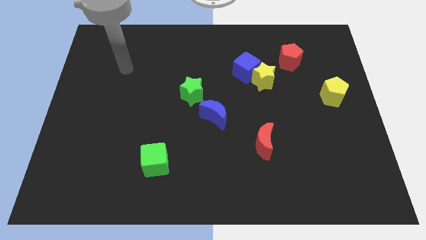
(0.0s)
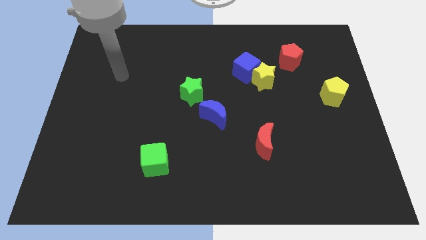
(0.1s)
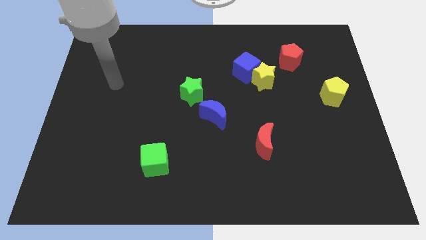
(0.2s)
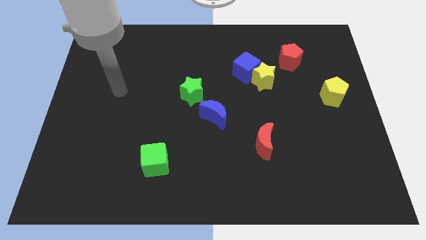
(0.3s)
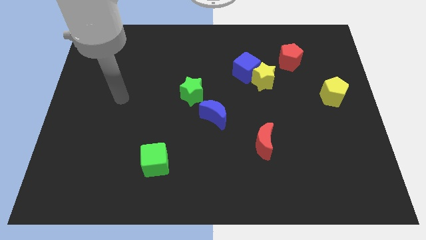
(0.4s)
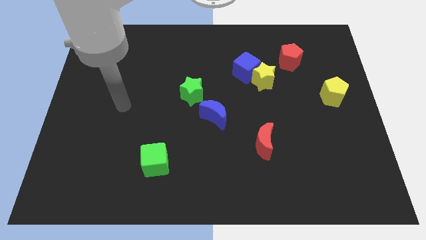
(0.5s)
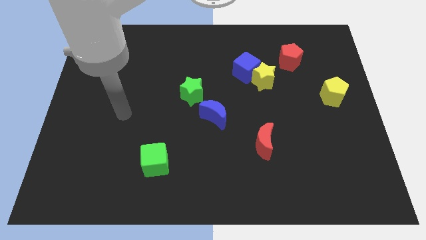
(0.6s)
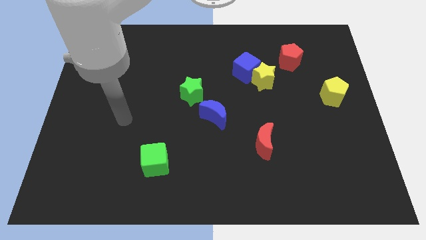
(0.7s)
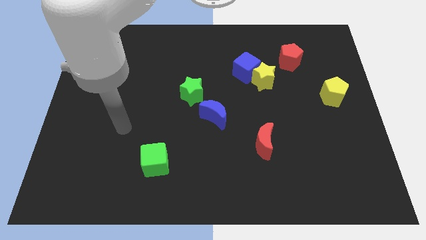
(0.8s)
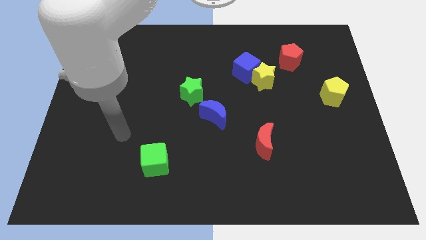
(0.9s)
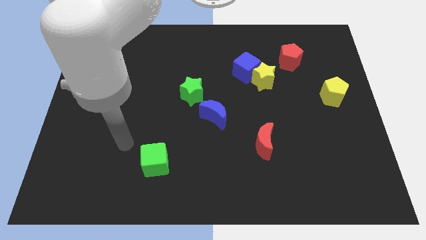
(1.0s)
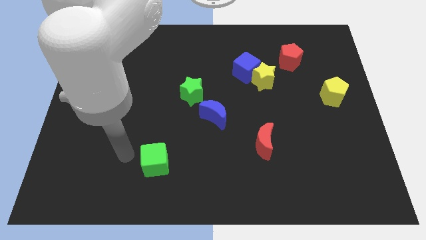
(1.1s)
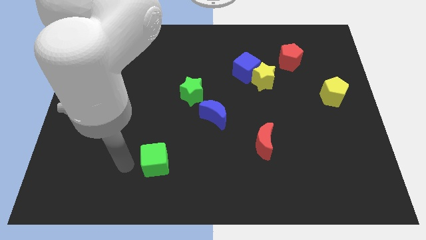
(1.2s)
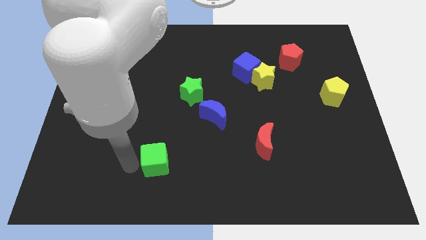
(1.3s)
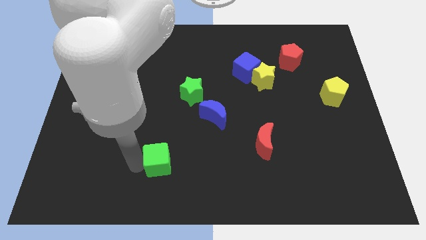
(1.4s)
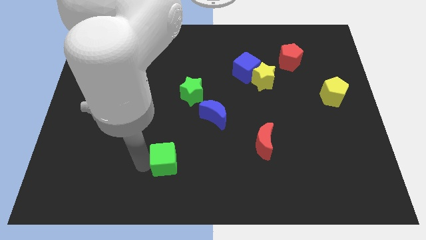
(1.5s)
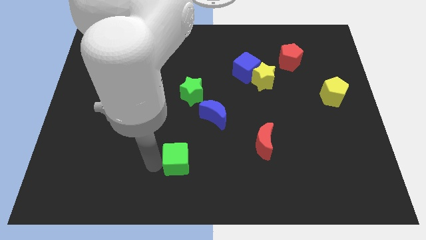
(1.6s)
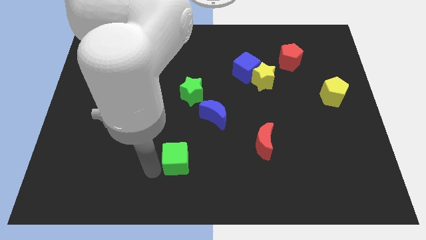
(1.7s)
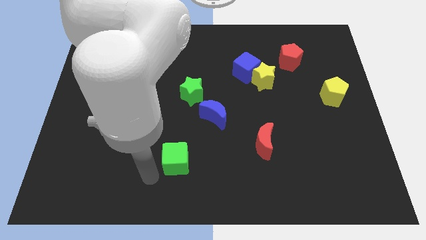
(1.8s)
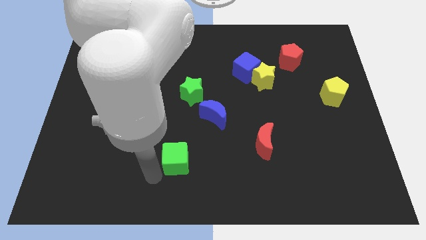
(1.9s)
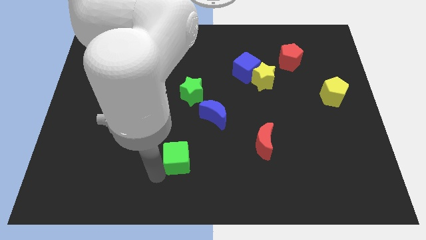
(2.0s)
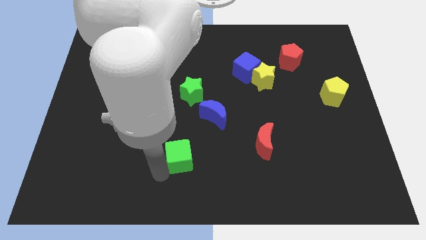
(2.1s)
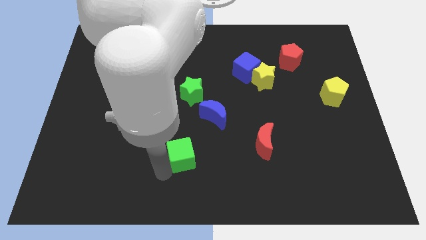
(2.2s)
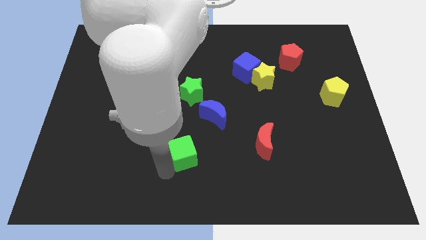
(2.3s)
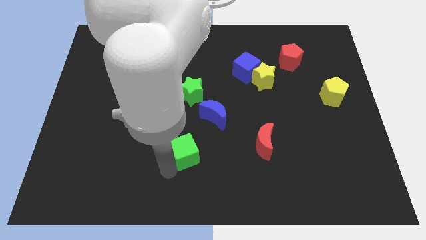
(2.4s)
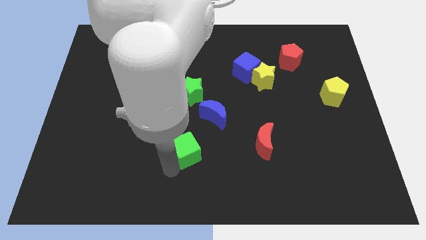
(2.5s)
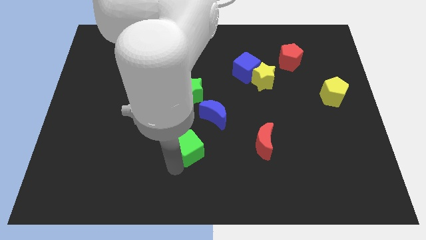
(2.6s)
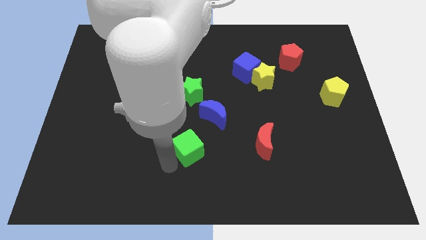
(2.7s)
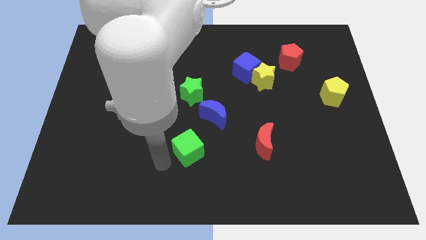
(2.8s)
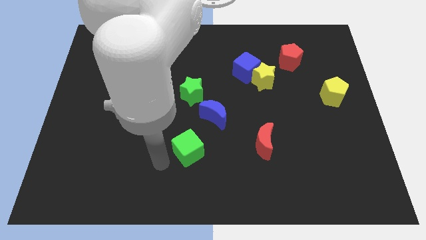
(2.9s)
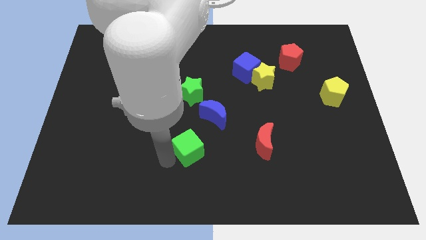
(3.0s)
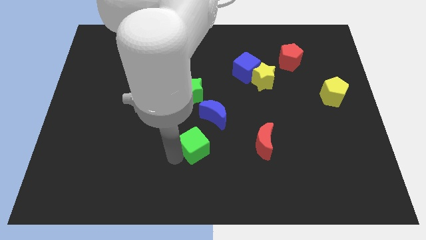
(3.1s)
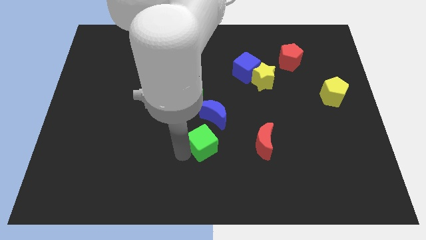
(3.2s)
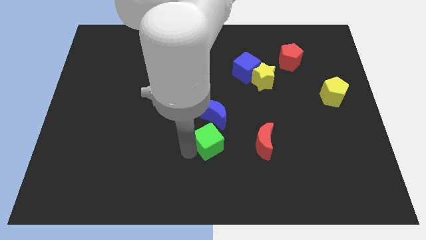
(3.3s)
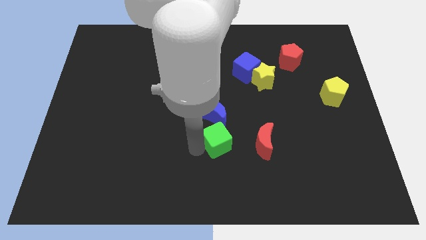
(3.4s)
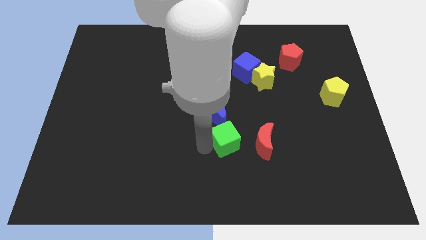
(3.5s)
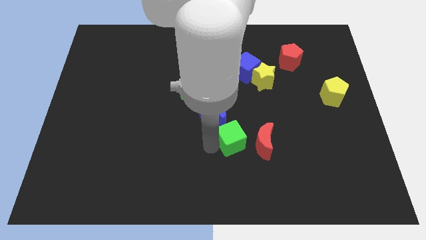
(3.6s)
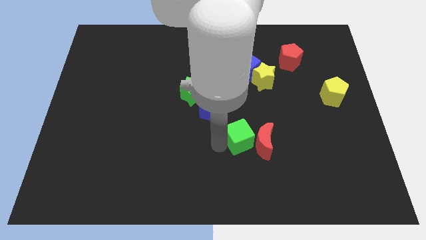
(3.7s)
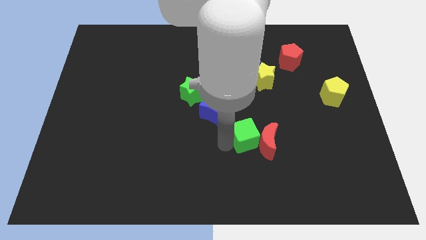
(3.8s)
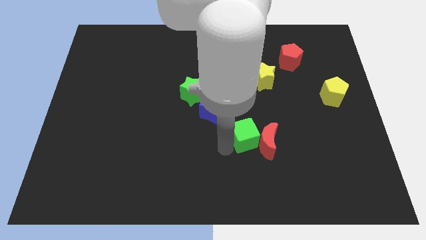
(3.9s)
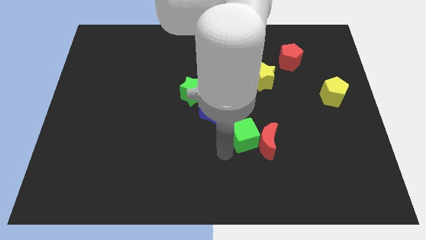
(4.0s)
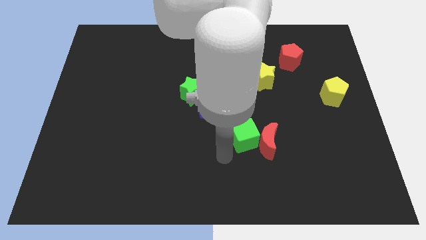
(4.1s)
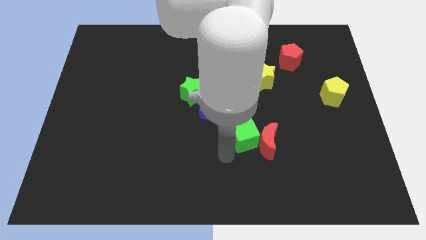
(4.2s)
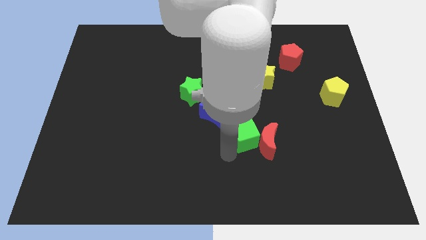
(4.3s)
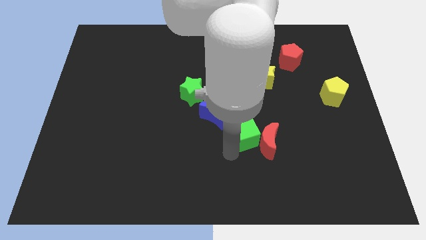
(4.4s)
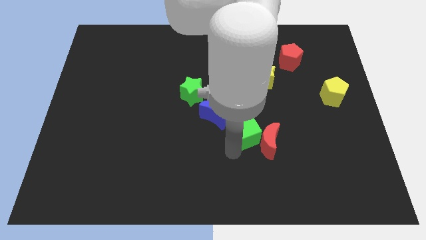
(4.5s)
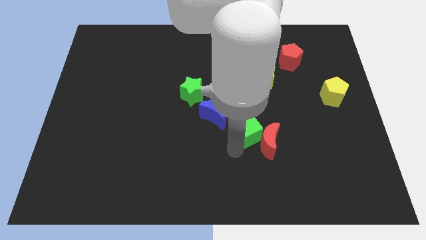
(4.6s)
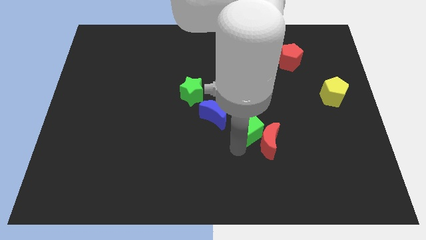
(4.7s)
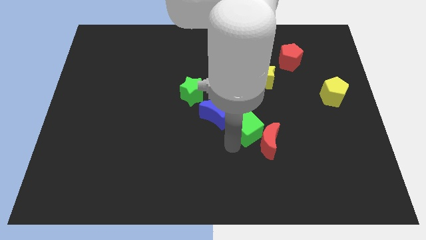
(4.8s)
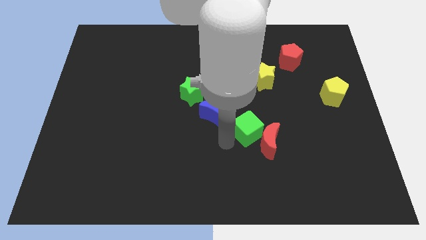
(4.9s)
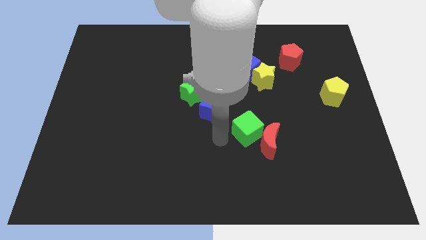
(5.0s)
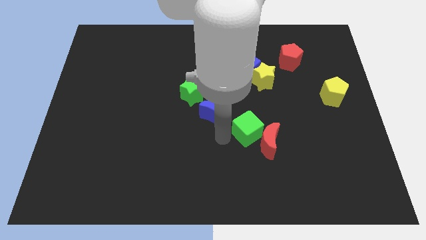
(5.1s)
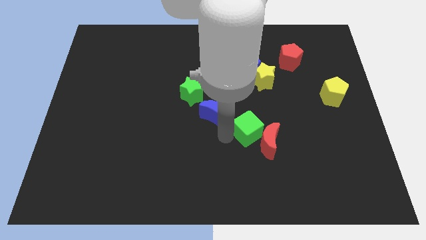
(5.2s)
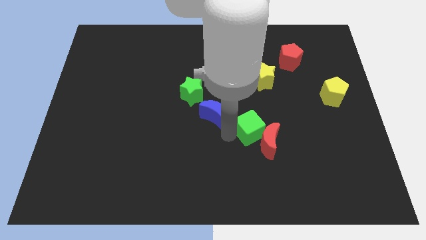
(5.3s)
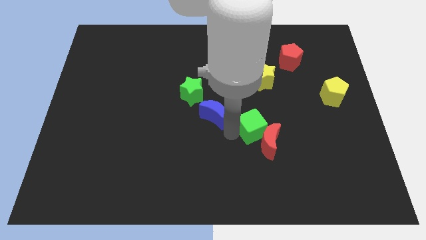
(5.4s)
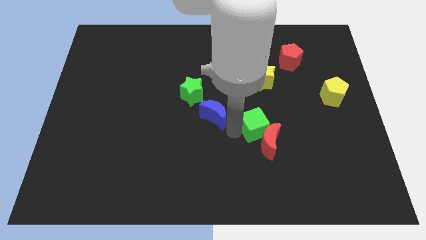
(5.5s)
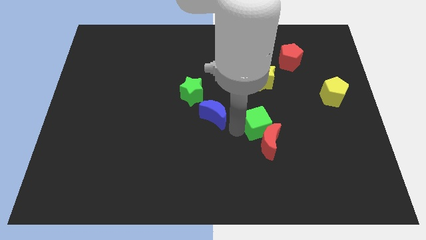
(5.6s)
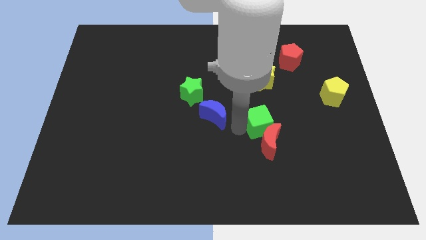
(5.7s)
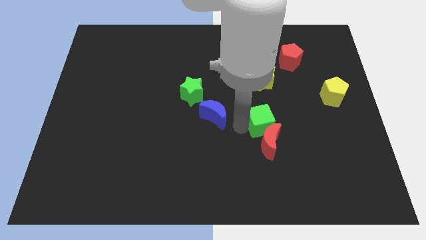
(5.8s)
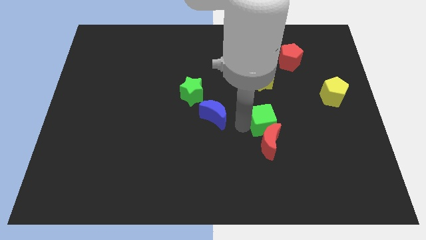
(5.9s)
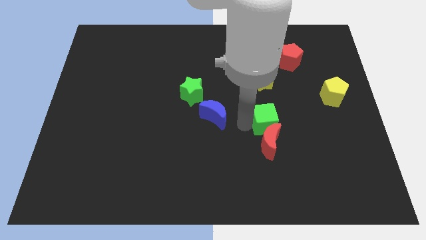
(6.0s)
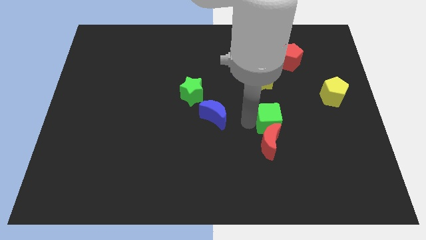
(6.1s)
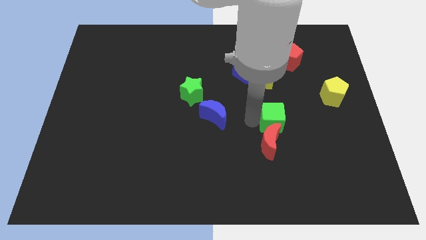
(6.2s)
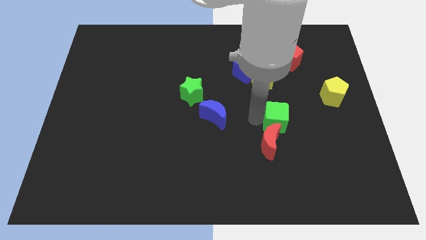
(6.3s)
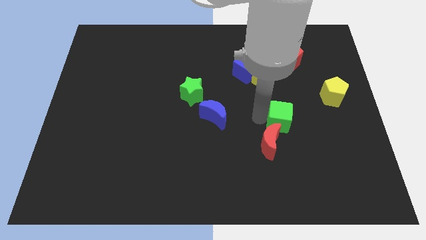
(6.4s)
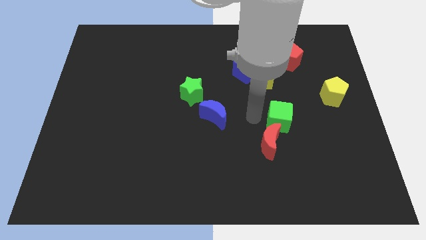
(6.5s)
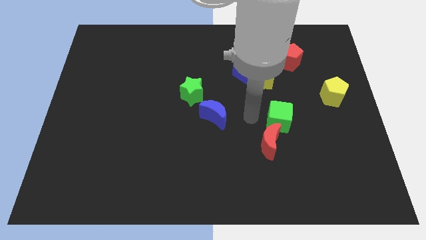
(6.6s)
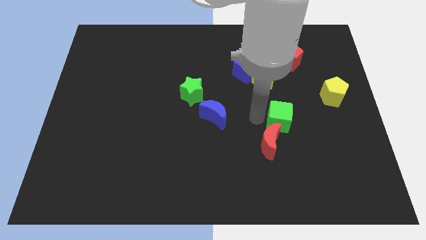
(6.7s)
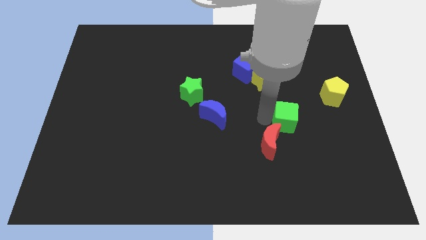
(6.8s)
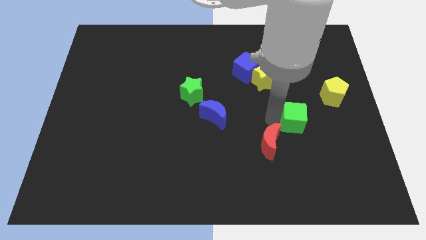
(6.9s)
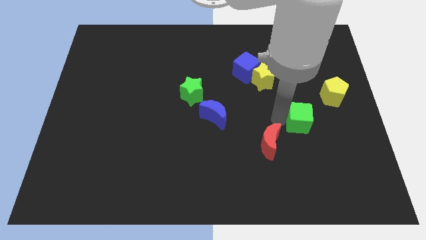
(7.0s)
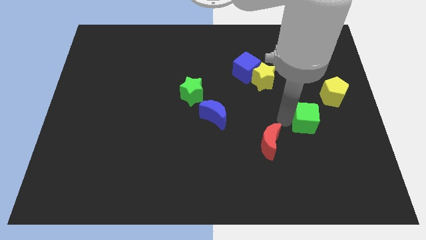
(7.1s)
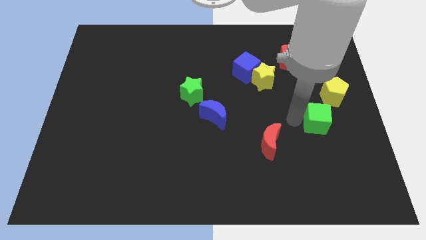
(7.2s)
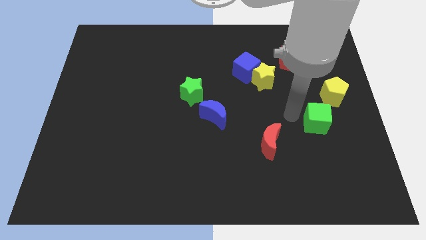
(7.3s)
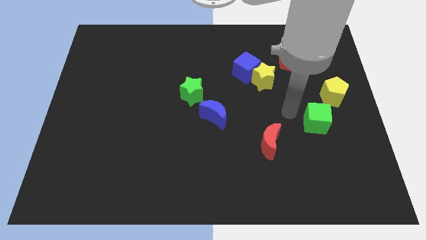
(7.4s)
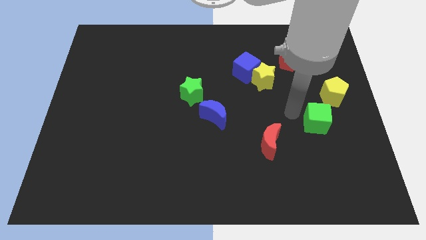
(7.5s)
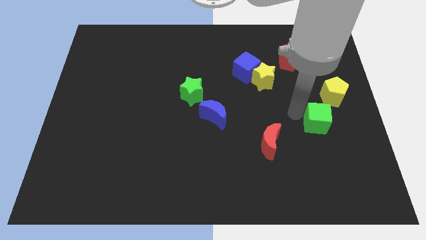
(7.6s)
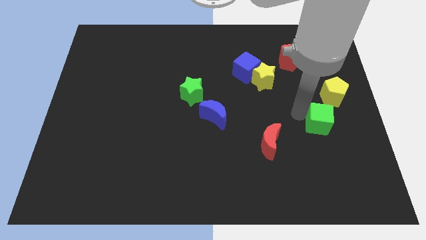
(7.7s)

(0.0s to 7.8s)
move the green cube below the yellow pentagon
